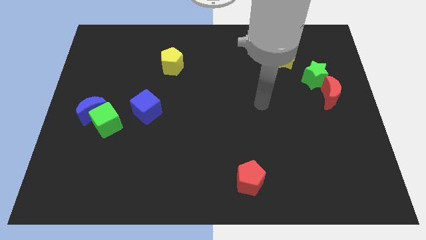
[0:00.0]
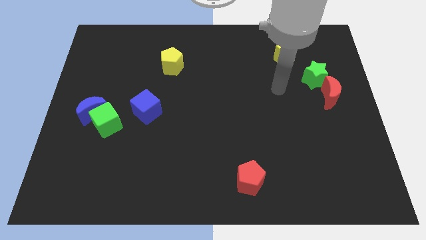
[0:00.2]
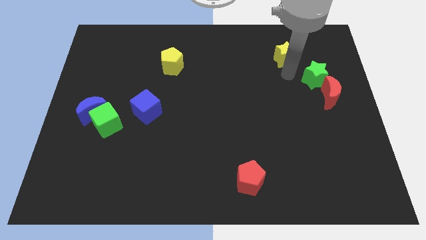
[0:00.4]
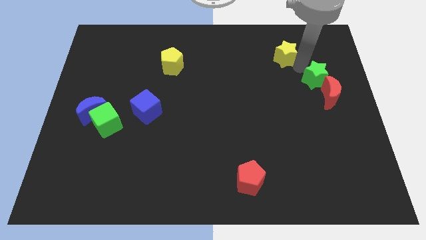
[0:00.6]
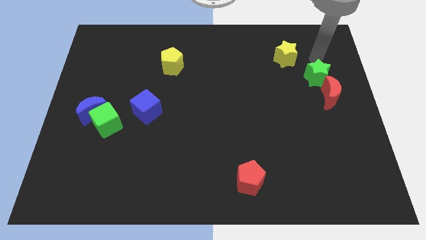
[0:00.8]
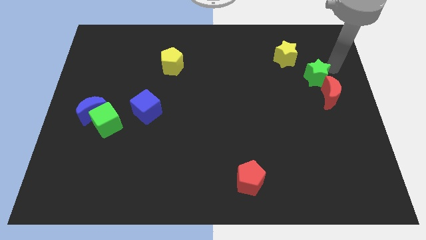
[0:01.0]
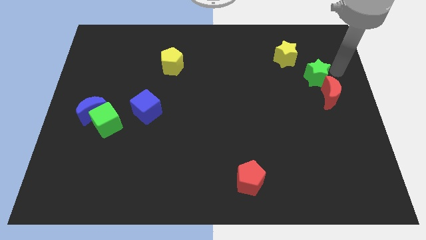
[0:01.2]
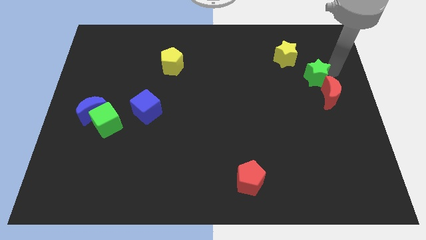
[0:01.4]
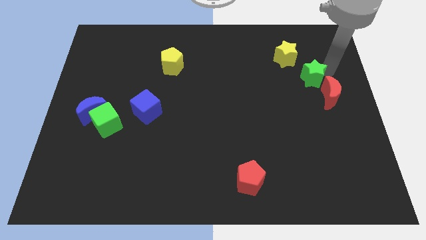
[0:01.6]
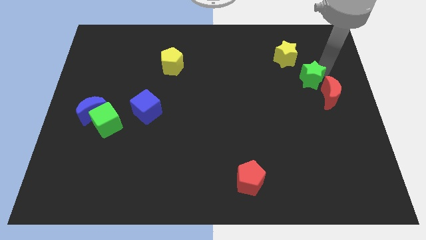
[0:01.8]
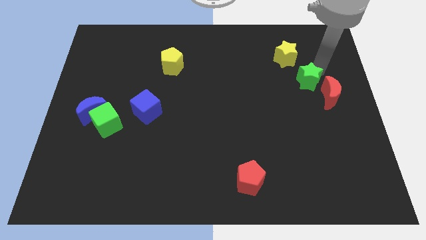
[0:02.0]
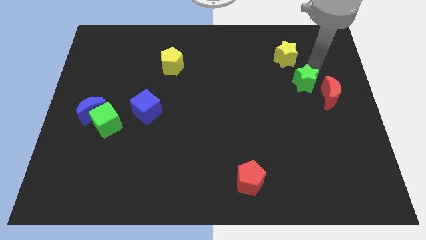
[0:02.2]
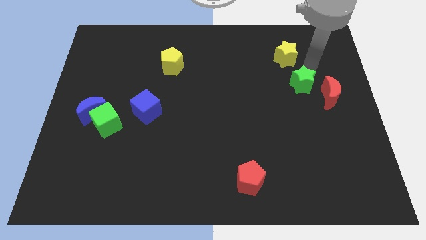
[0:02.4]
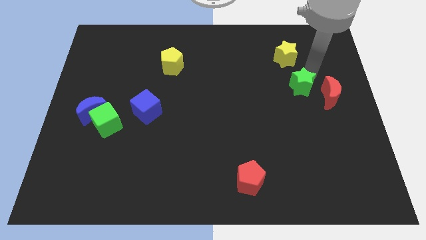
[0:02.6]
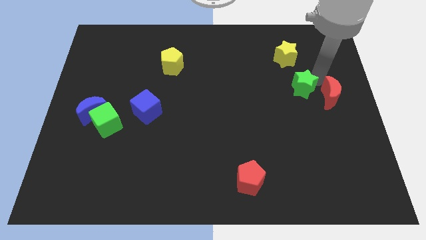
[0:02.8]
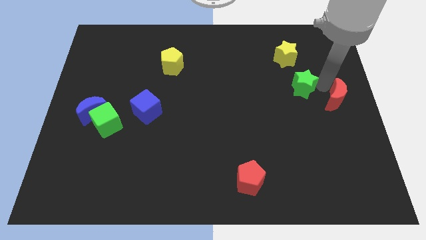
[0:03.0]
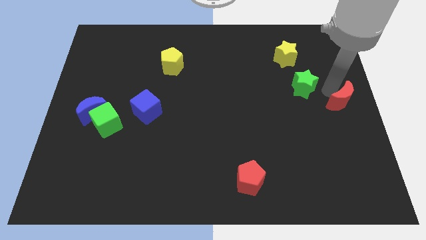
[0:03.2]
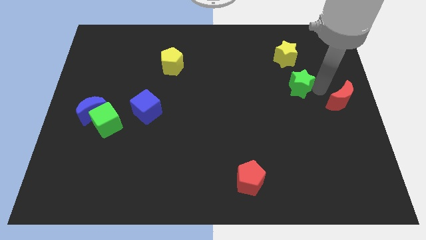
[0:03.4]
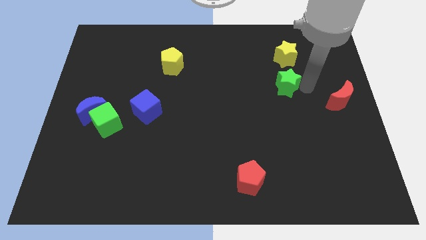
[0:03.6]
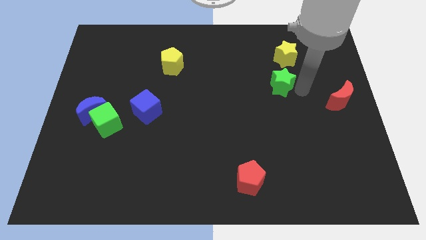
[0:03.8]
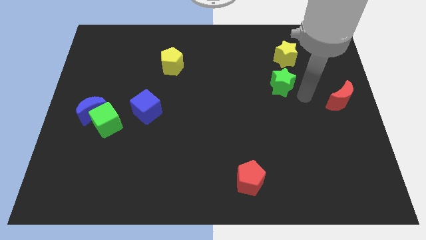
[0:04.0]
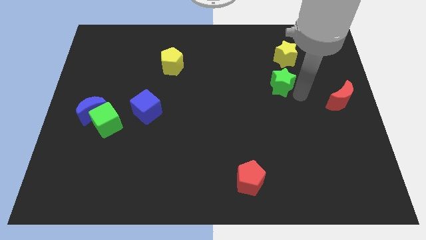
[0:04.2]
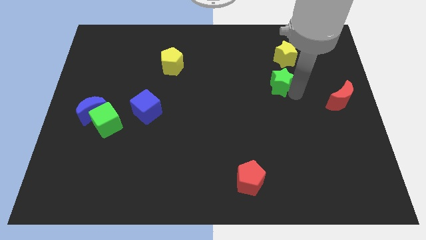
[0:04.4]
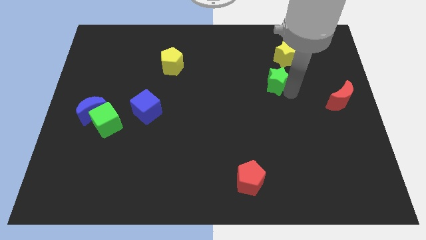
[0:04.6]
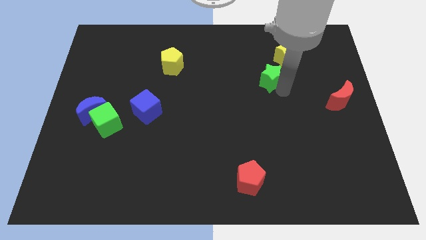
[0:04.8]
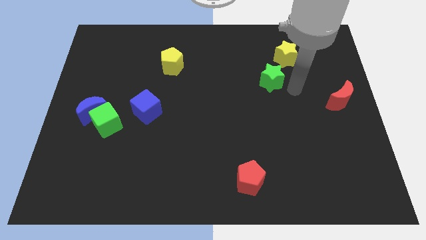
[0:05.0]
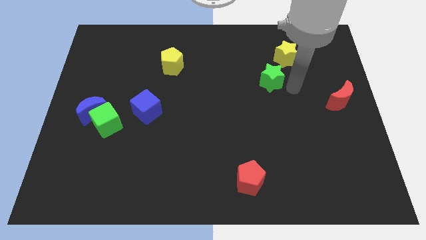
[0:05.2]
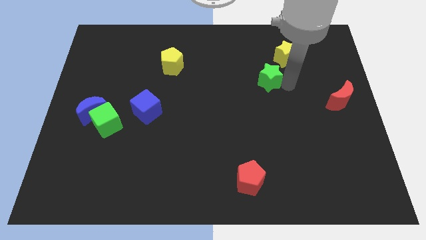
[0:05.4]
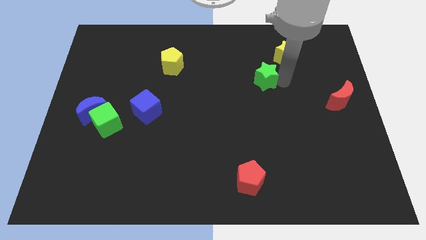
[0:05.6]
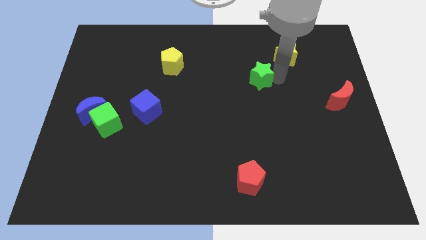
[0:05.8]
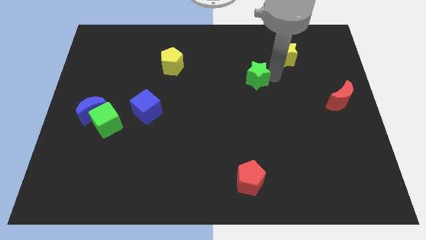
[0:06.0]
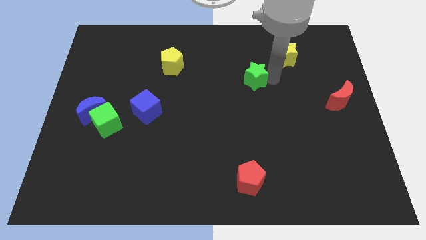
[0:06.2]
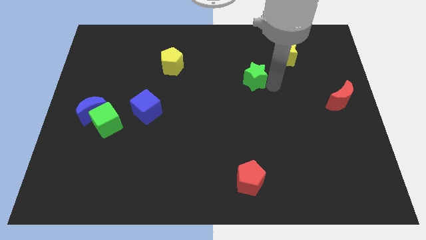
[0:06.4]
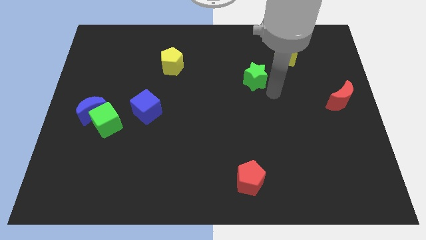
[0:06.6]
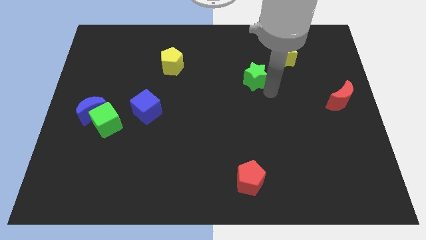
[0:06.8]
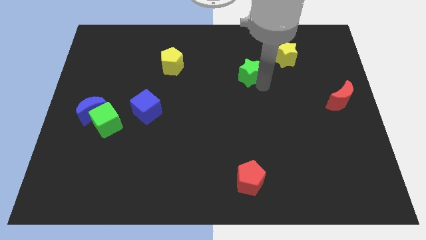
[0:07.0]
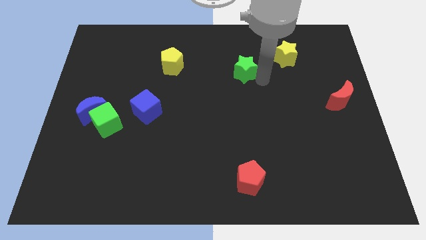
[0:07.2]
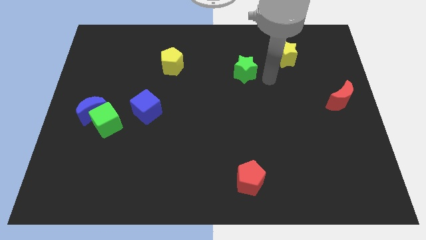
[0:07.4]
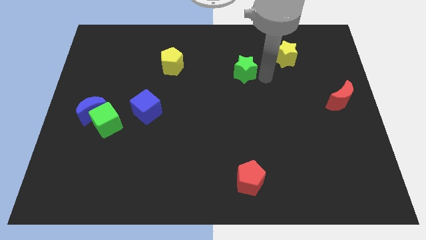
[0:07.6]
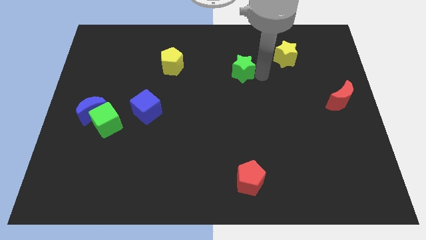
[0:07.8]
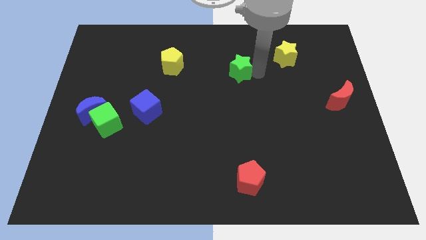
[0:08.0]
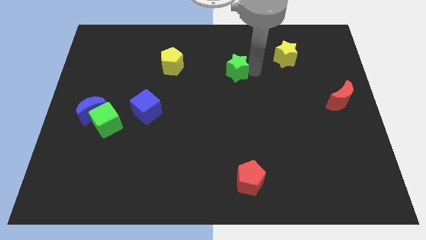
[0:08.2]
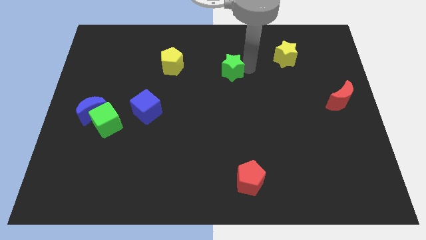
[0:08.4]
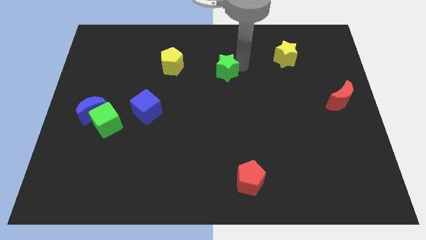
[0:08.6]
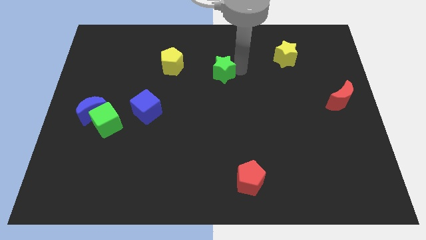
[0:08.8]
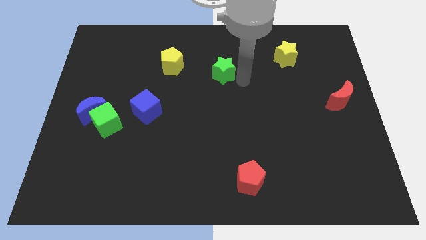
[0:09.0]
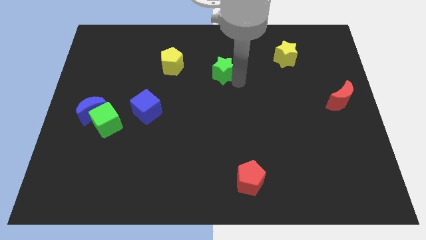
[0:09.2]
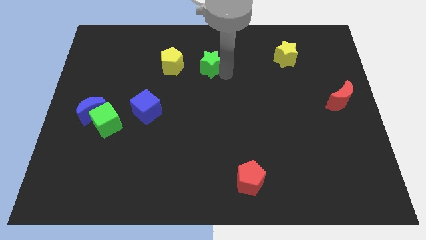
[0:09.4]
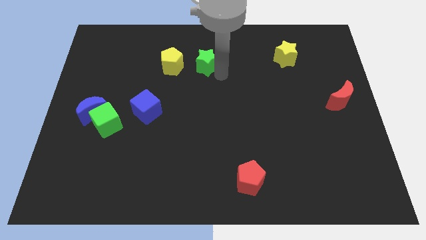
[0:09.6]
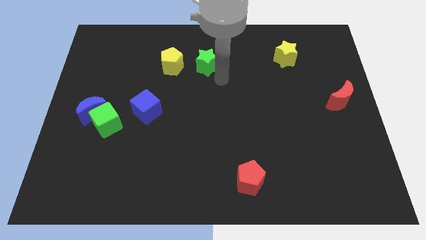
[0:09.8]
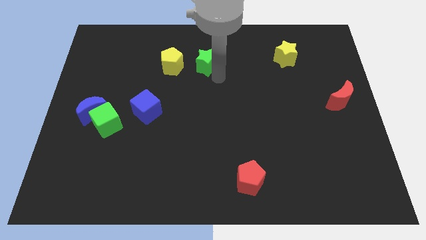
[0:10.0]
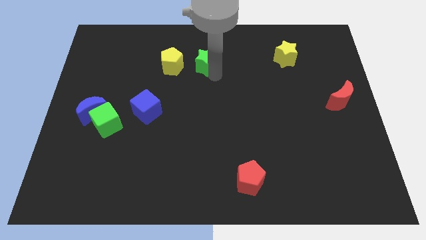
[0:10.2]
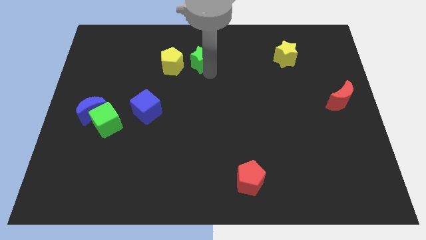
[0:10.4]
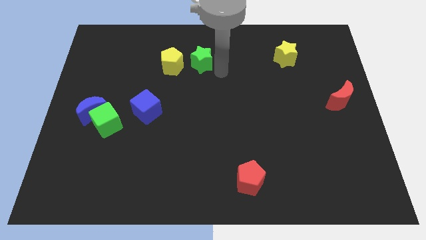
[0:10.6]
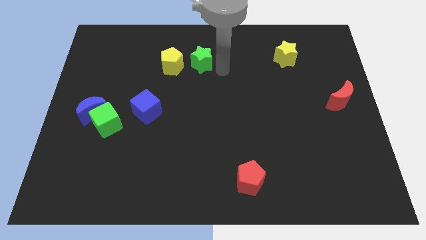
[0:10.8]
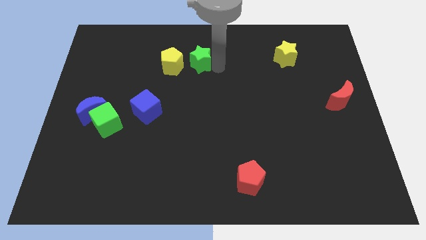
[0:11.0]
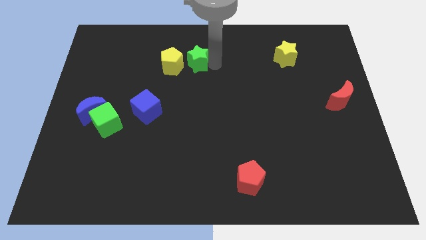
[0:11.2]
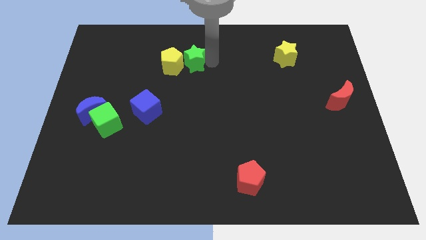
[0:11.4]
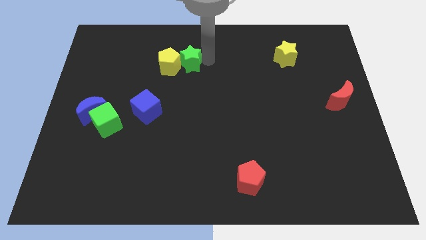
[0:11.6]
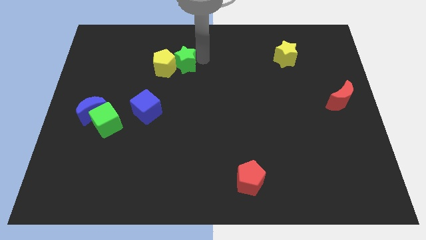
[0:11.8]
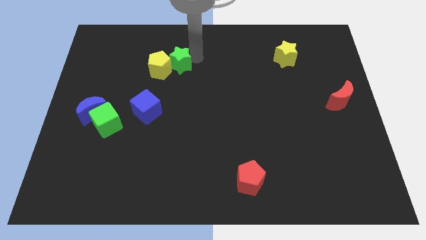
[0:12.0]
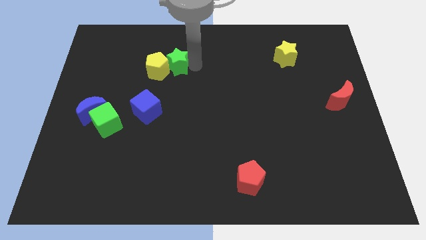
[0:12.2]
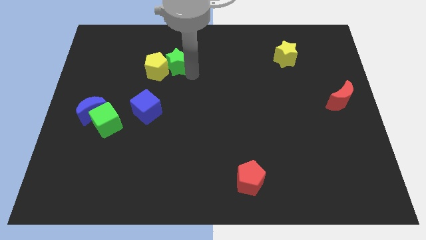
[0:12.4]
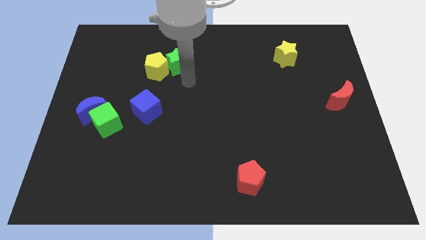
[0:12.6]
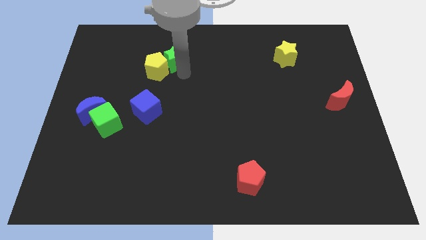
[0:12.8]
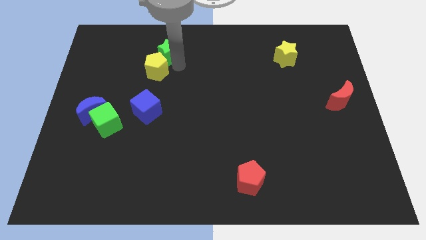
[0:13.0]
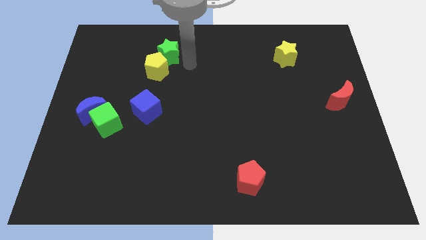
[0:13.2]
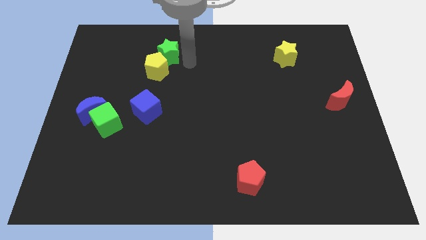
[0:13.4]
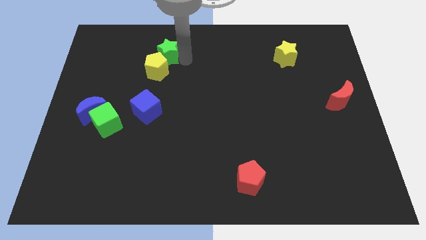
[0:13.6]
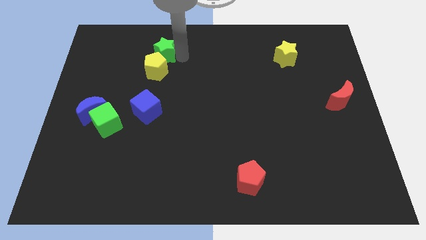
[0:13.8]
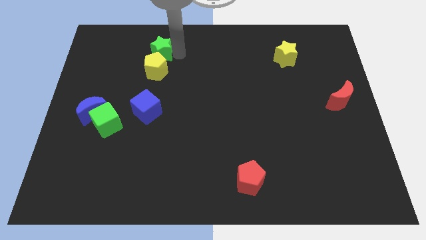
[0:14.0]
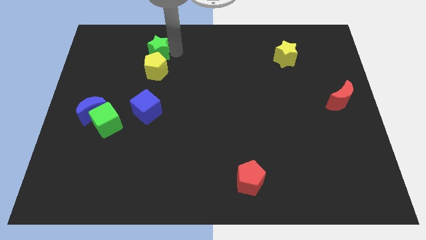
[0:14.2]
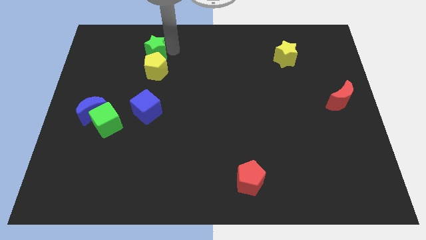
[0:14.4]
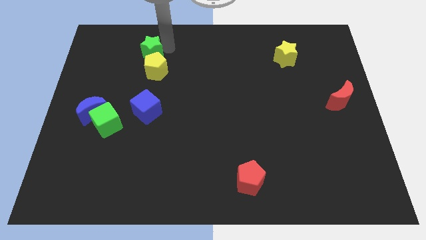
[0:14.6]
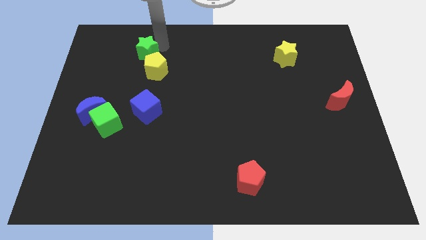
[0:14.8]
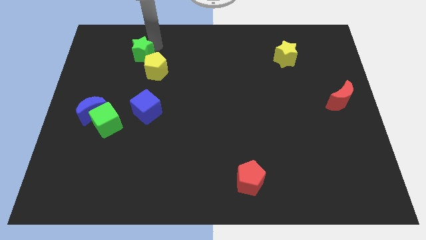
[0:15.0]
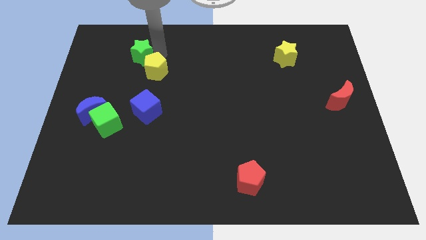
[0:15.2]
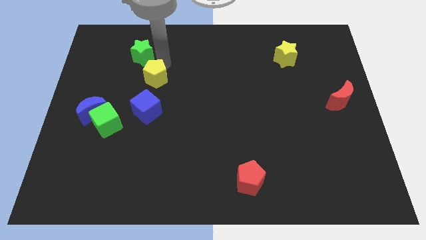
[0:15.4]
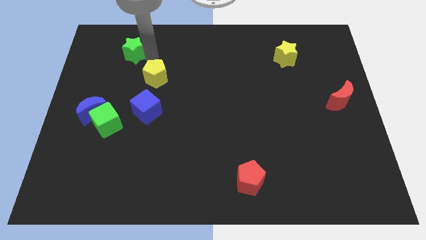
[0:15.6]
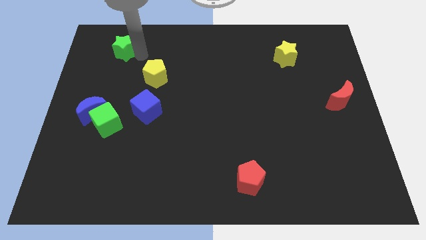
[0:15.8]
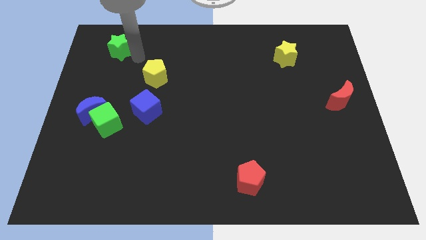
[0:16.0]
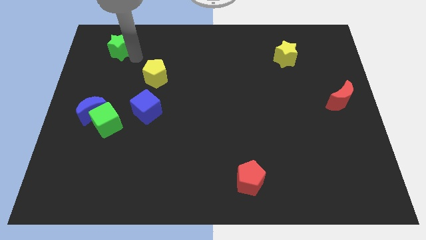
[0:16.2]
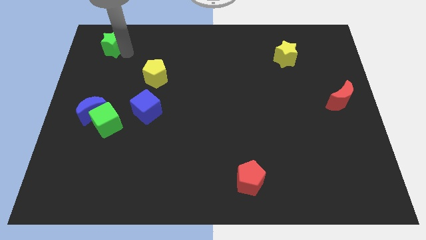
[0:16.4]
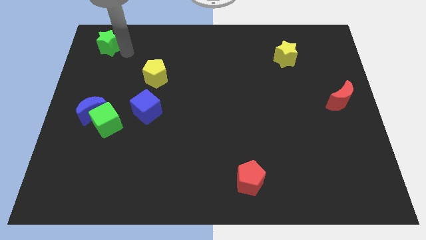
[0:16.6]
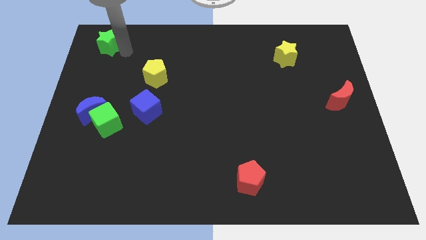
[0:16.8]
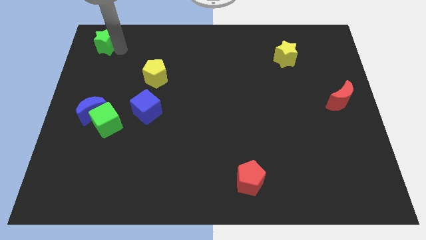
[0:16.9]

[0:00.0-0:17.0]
push the green star to the top left
